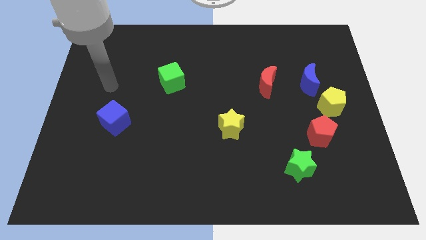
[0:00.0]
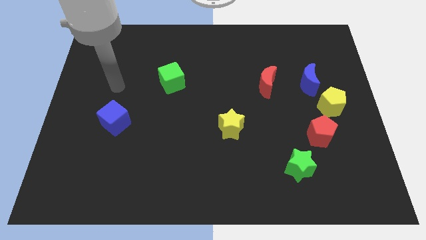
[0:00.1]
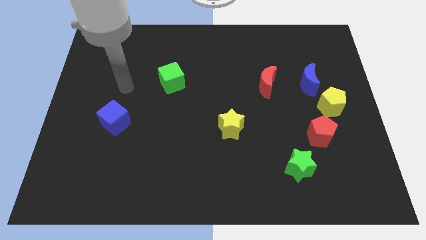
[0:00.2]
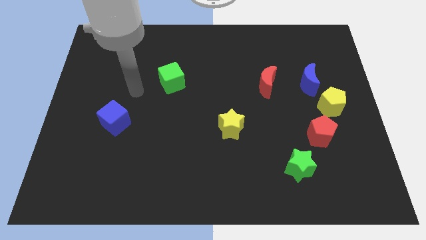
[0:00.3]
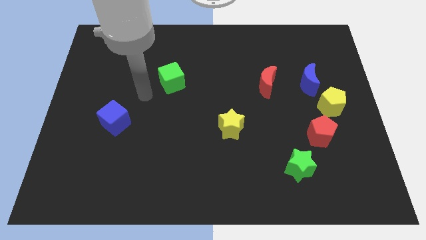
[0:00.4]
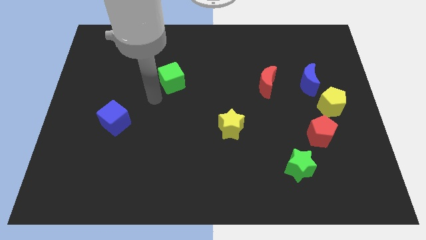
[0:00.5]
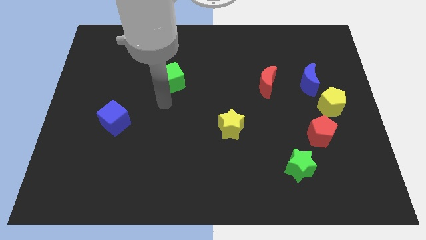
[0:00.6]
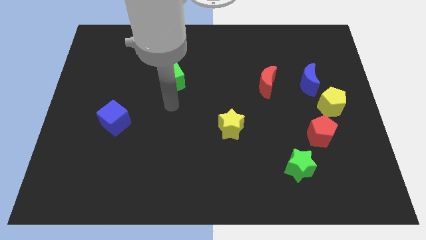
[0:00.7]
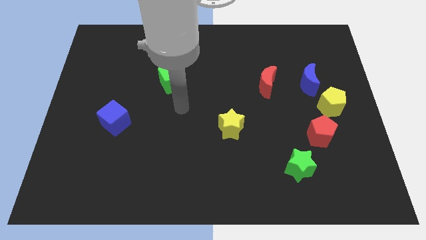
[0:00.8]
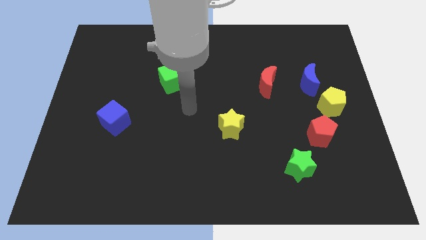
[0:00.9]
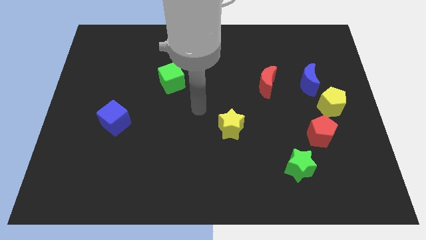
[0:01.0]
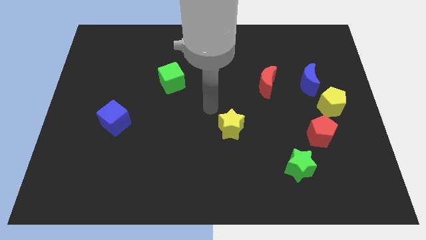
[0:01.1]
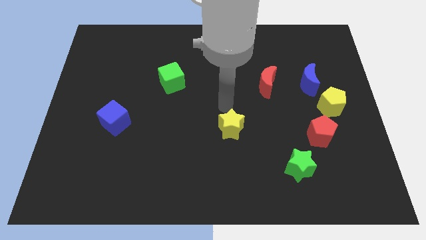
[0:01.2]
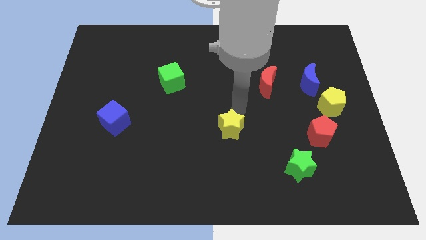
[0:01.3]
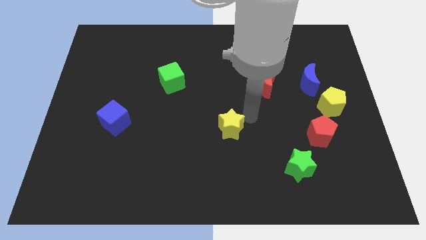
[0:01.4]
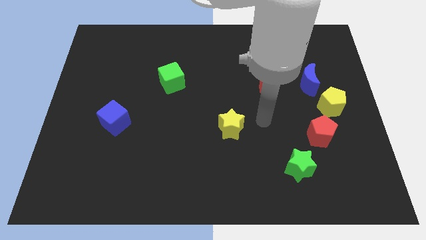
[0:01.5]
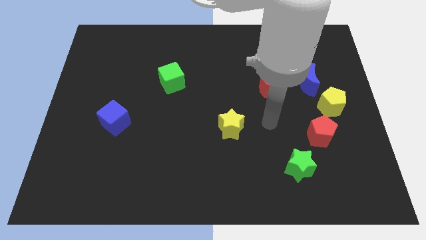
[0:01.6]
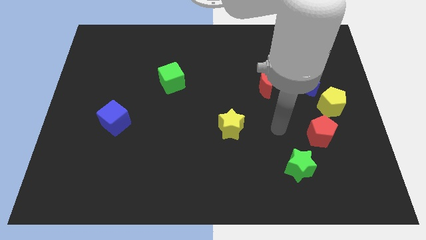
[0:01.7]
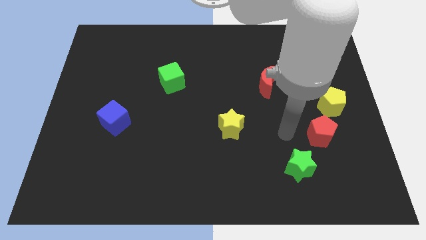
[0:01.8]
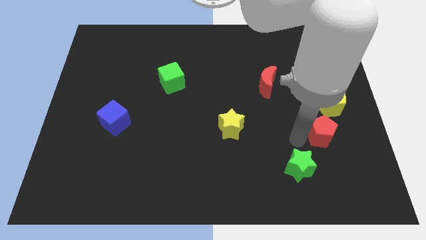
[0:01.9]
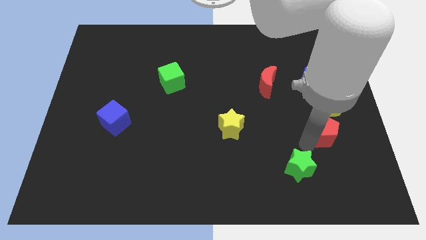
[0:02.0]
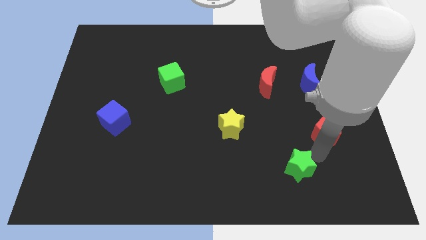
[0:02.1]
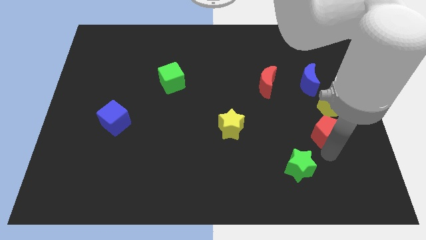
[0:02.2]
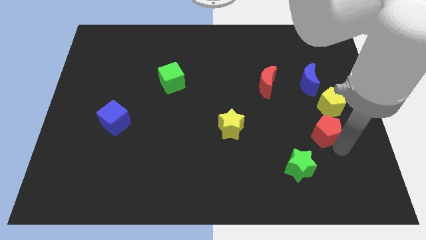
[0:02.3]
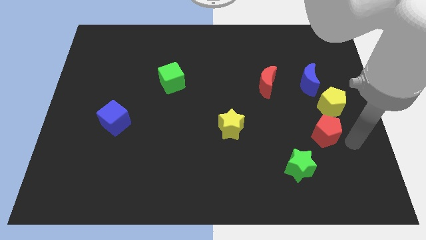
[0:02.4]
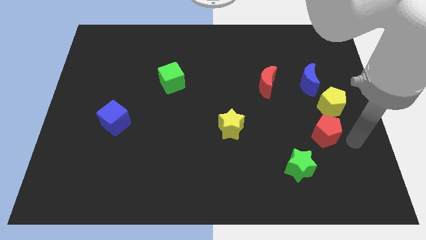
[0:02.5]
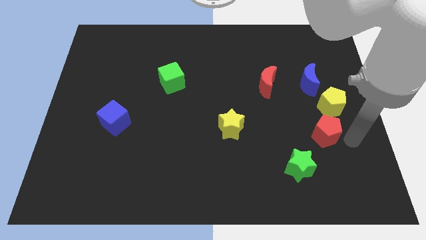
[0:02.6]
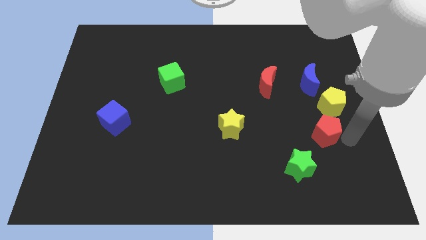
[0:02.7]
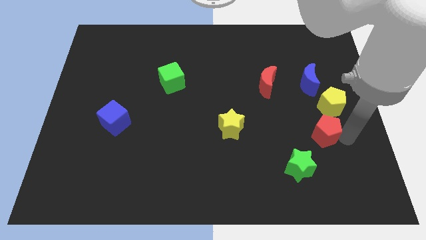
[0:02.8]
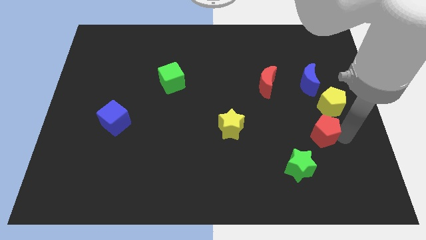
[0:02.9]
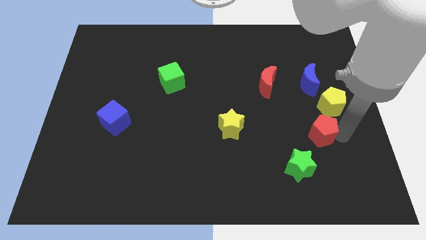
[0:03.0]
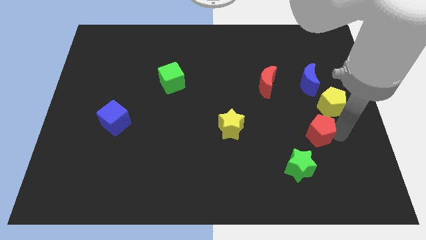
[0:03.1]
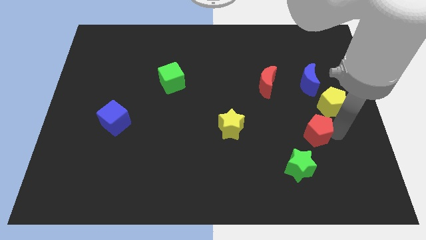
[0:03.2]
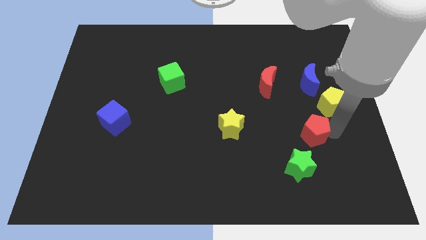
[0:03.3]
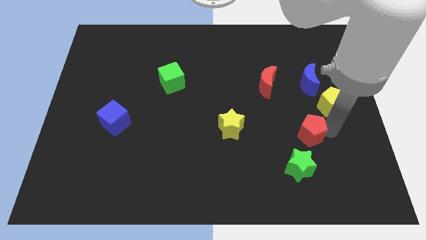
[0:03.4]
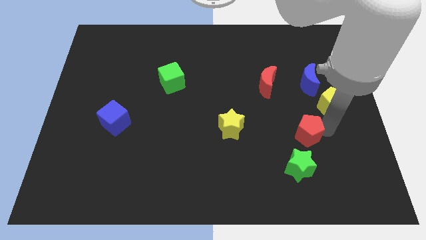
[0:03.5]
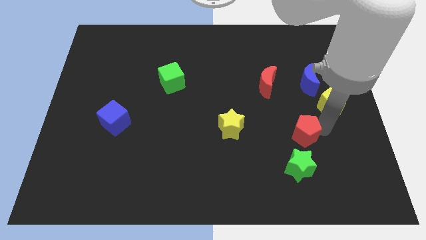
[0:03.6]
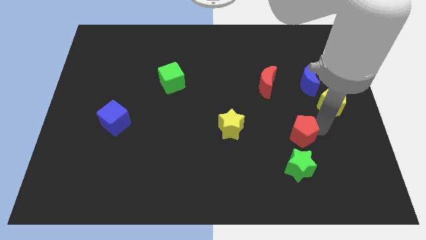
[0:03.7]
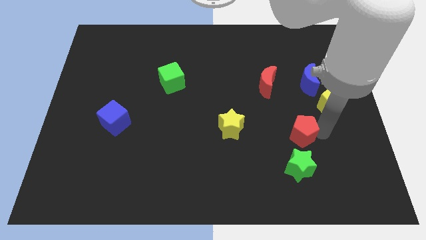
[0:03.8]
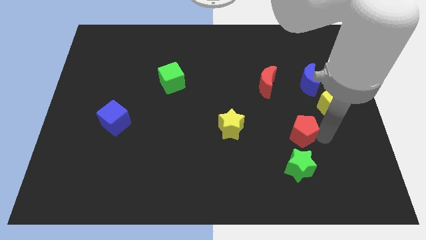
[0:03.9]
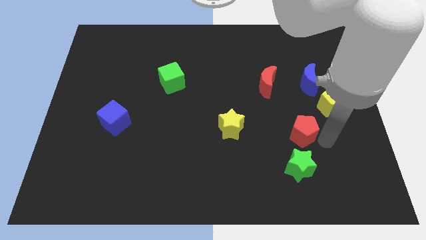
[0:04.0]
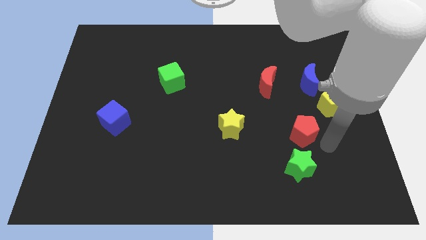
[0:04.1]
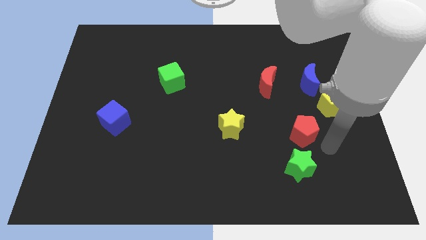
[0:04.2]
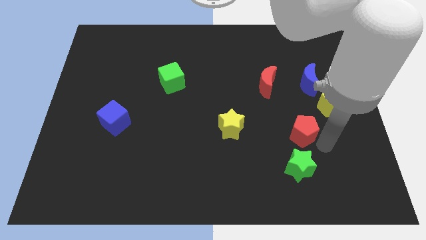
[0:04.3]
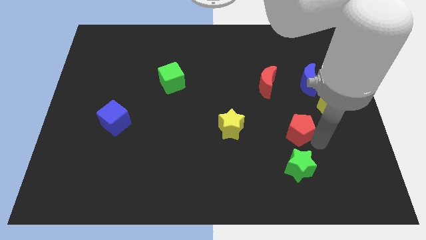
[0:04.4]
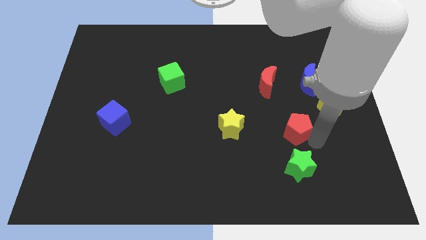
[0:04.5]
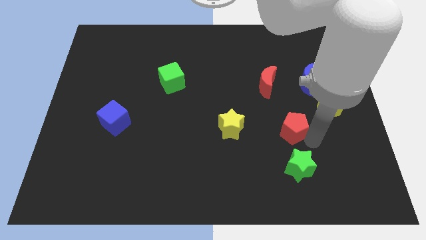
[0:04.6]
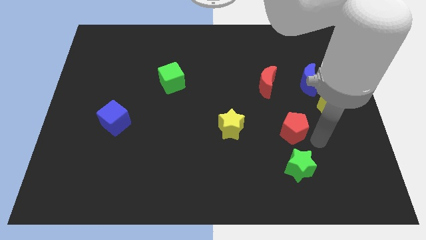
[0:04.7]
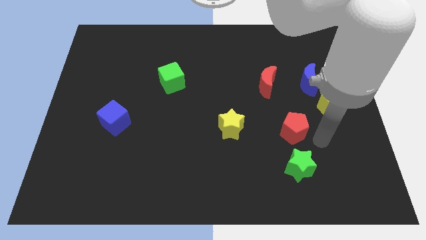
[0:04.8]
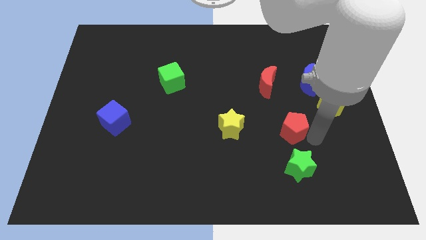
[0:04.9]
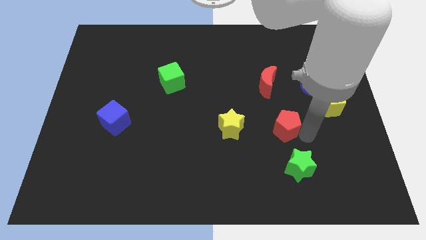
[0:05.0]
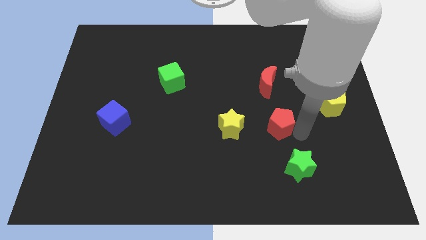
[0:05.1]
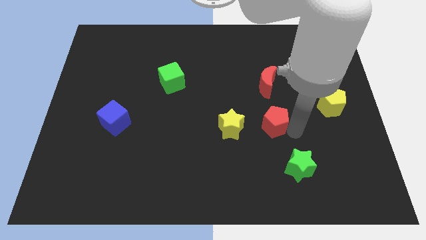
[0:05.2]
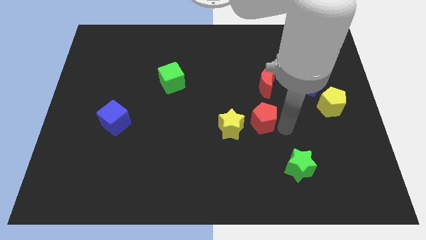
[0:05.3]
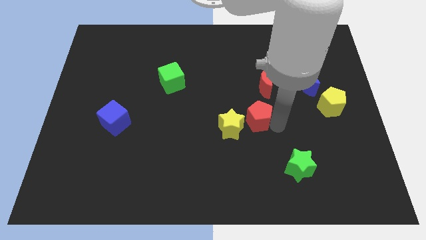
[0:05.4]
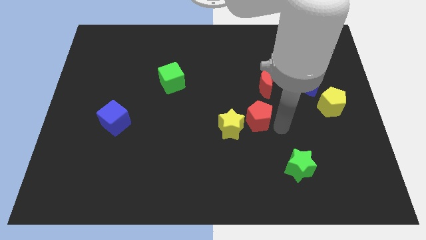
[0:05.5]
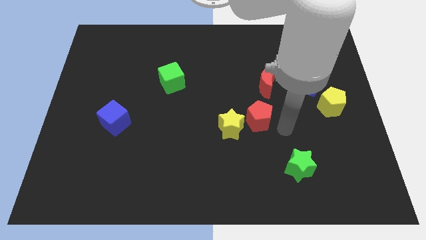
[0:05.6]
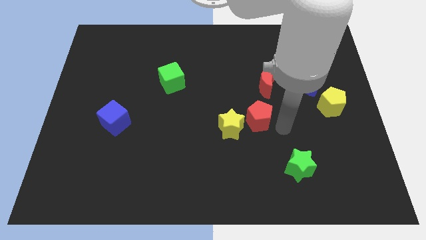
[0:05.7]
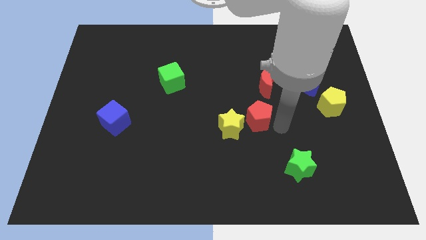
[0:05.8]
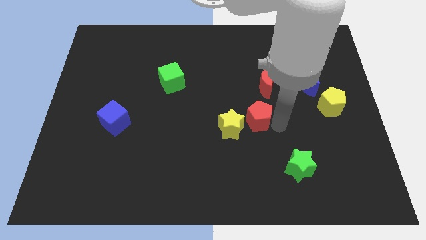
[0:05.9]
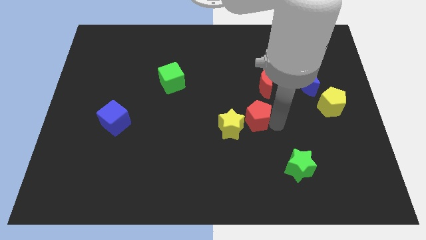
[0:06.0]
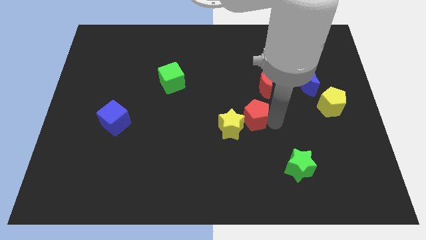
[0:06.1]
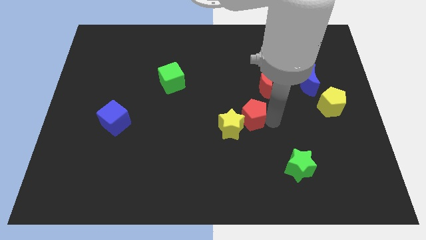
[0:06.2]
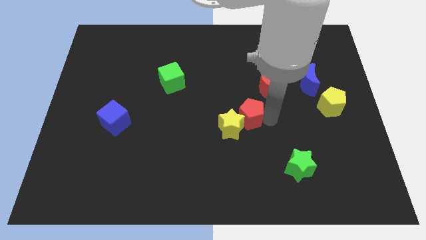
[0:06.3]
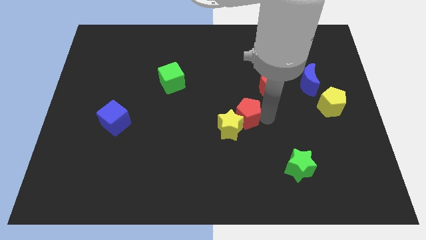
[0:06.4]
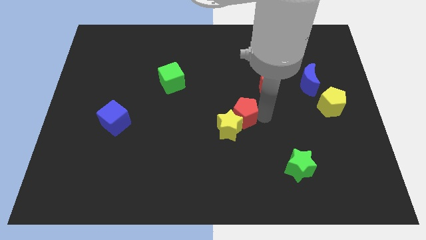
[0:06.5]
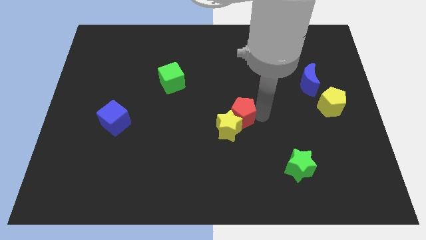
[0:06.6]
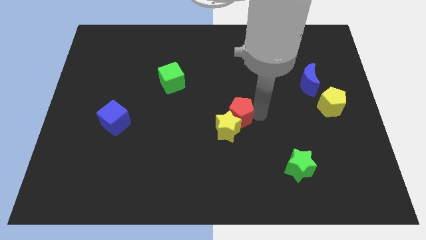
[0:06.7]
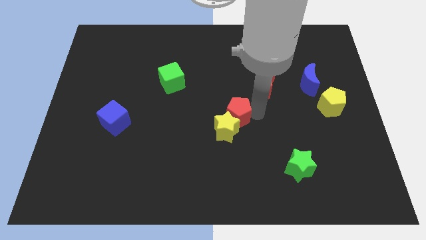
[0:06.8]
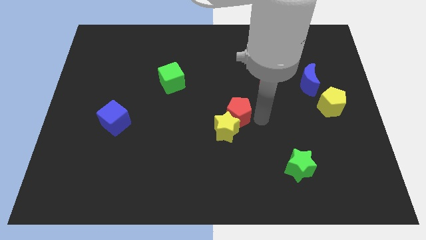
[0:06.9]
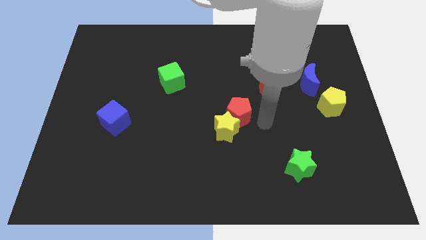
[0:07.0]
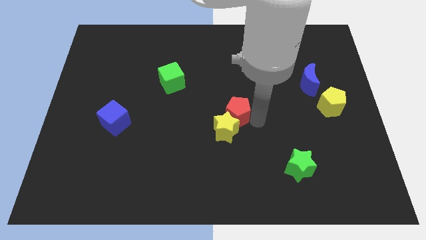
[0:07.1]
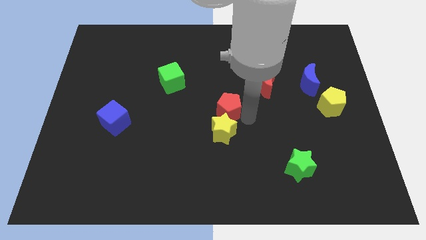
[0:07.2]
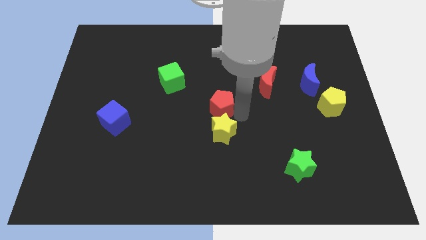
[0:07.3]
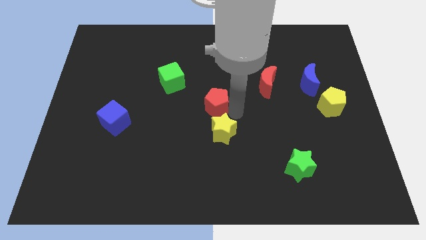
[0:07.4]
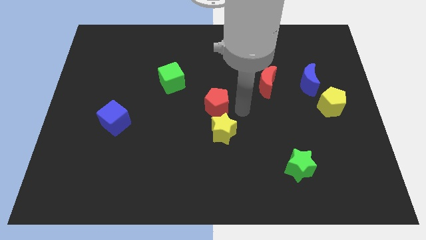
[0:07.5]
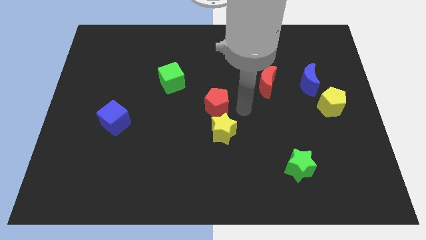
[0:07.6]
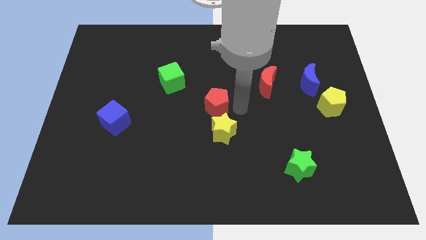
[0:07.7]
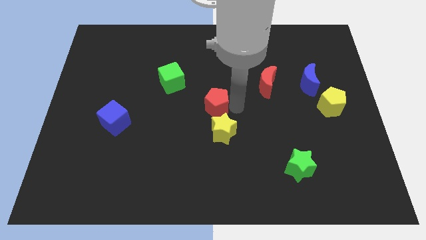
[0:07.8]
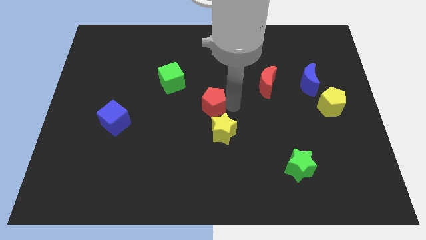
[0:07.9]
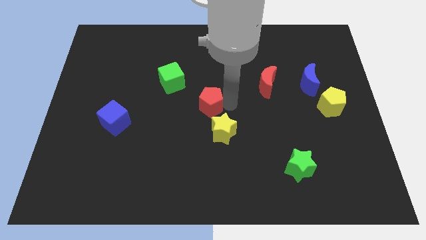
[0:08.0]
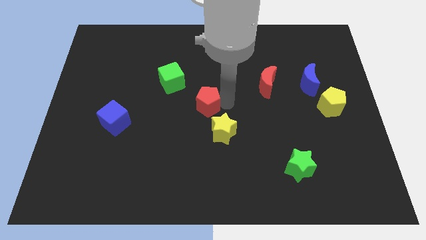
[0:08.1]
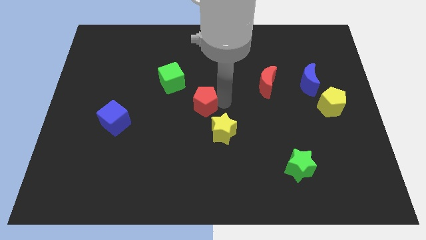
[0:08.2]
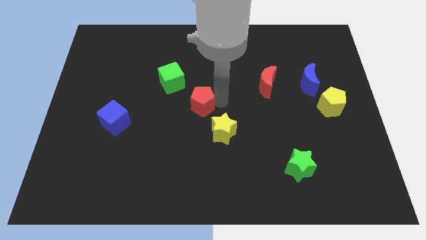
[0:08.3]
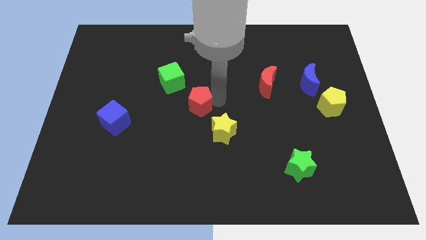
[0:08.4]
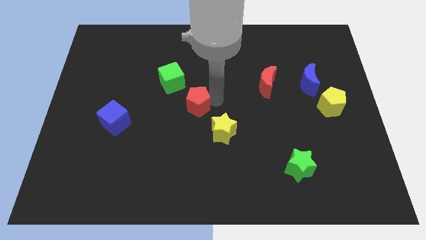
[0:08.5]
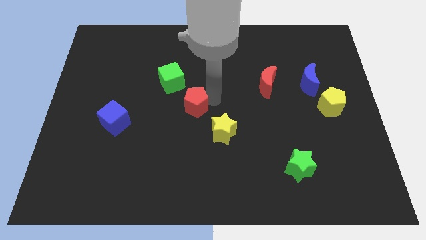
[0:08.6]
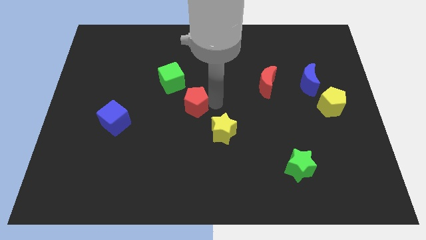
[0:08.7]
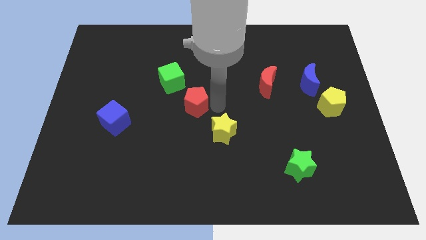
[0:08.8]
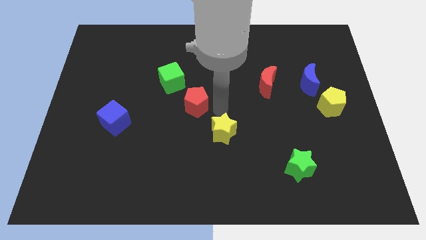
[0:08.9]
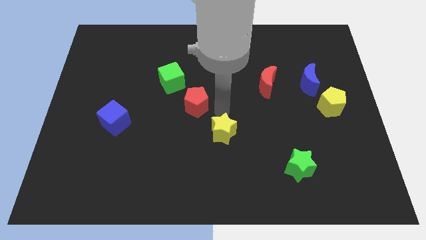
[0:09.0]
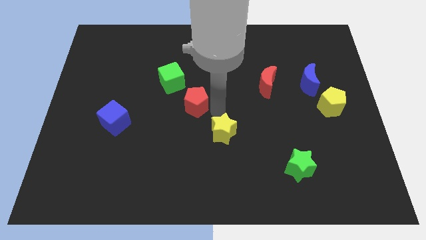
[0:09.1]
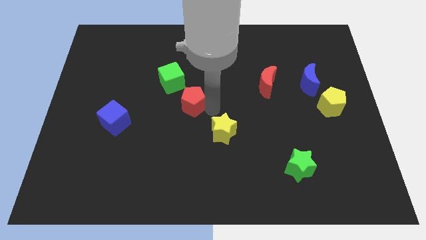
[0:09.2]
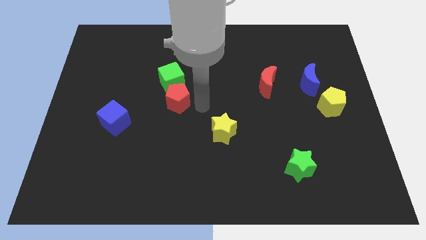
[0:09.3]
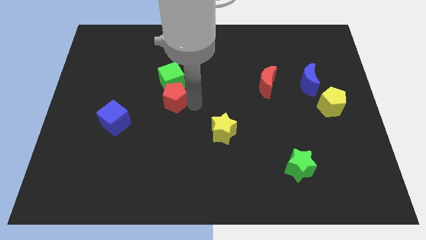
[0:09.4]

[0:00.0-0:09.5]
slide the red pentagon diagonally down and to the left of the green cube
